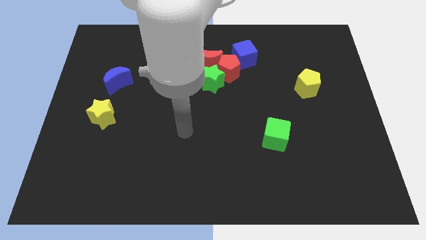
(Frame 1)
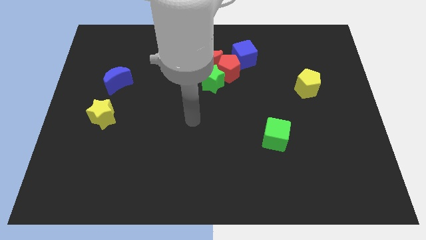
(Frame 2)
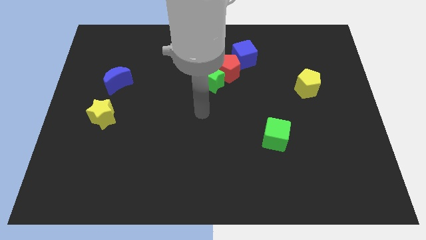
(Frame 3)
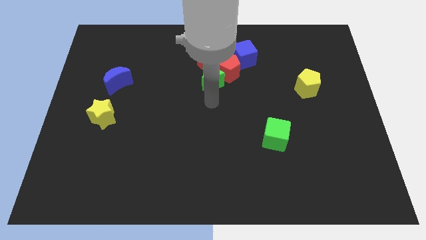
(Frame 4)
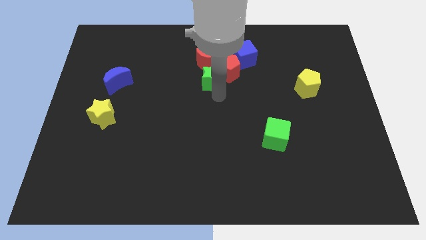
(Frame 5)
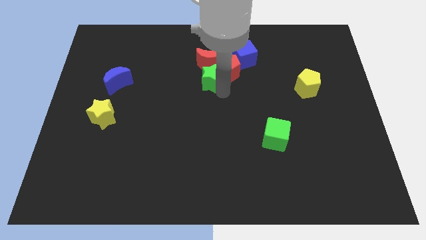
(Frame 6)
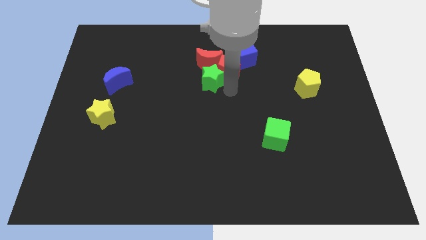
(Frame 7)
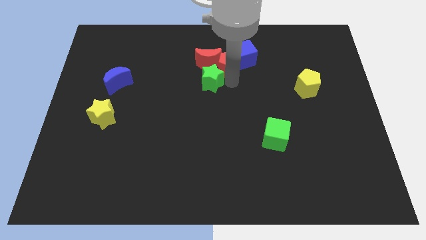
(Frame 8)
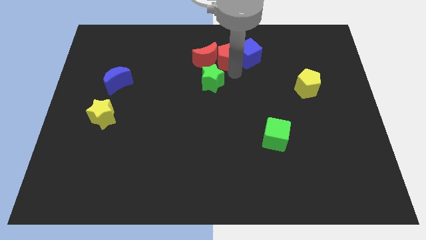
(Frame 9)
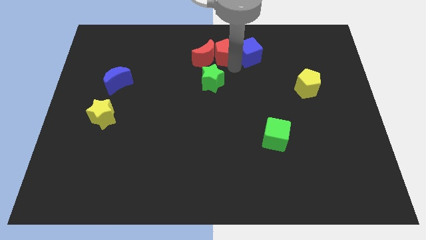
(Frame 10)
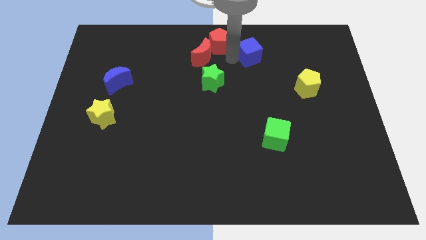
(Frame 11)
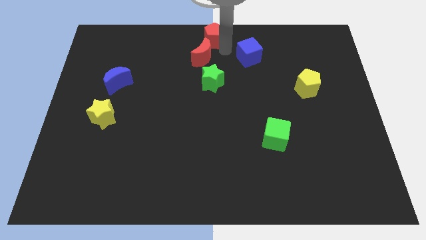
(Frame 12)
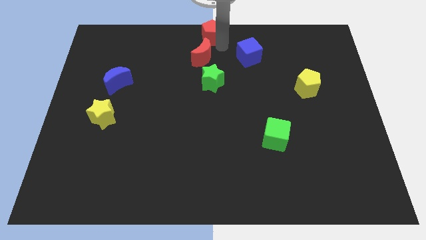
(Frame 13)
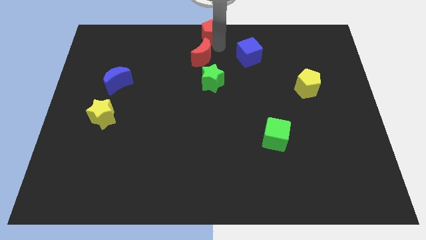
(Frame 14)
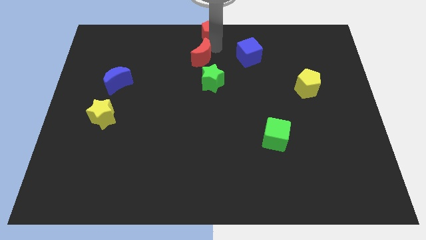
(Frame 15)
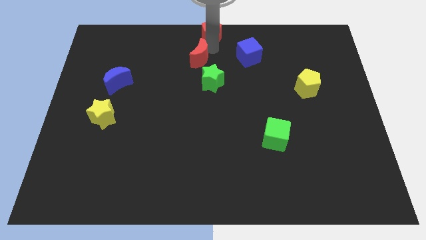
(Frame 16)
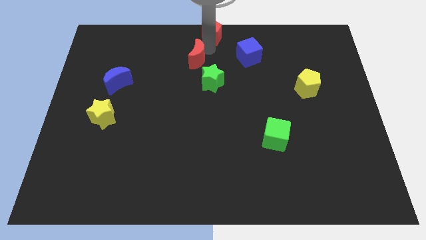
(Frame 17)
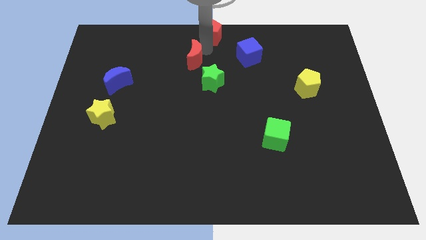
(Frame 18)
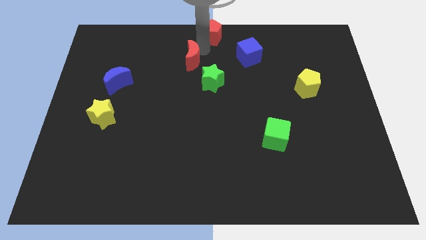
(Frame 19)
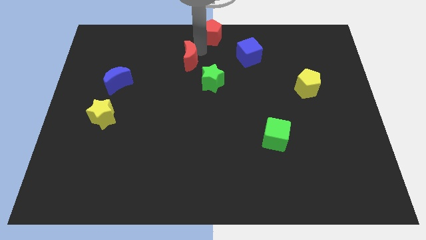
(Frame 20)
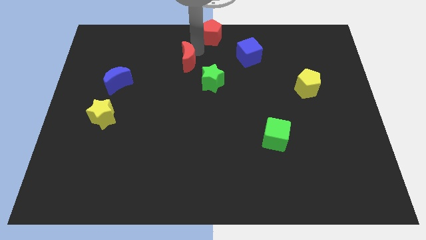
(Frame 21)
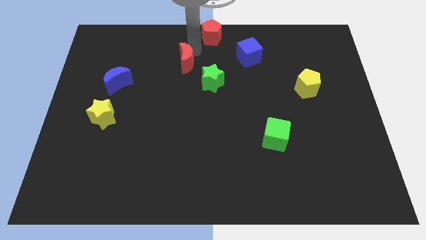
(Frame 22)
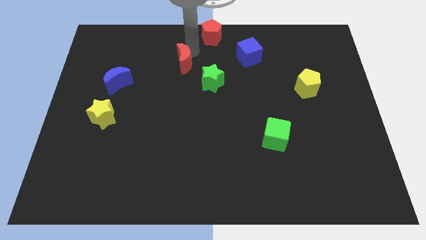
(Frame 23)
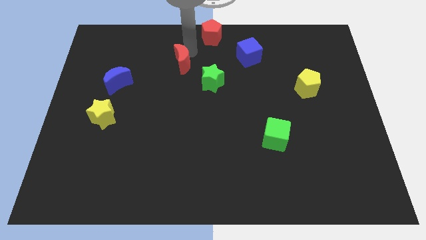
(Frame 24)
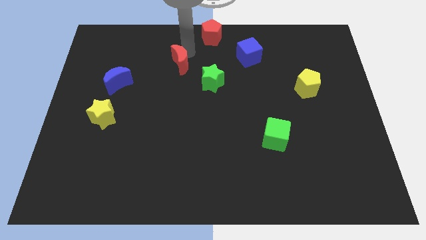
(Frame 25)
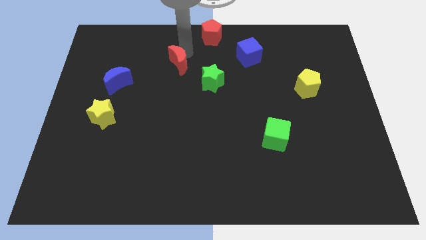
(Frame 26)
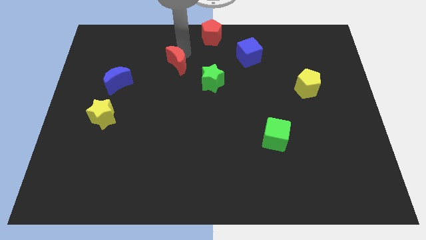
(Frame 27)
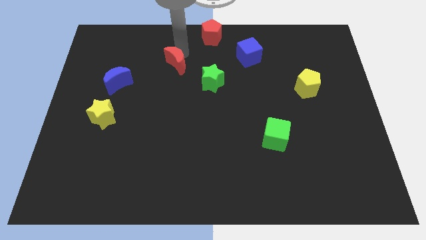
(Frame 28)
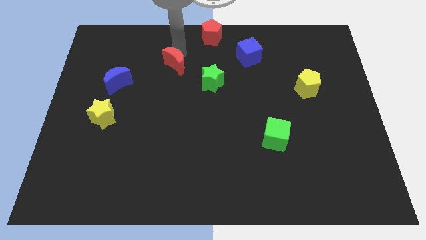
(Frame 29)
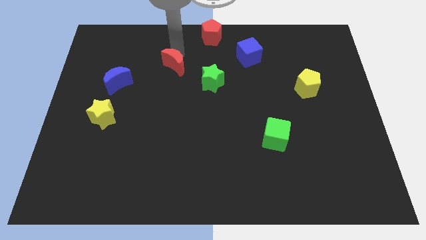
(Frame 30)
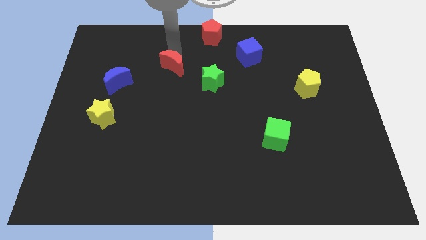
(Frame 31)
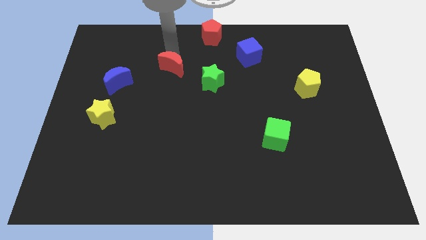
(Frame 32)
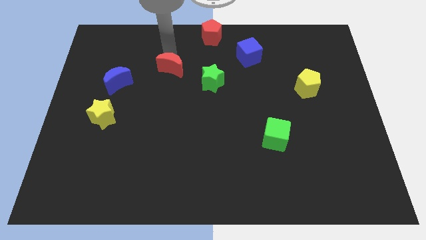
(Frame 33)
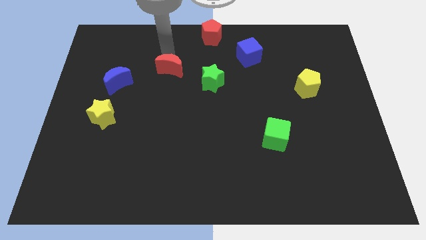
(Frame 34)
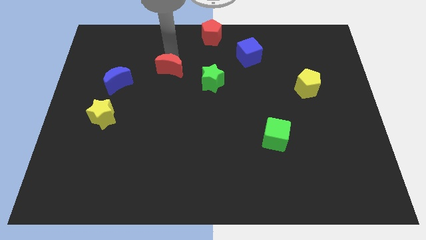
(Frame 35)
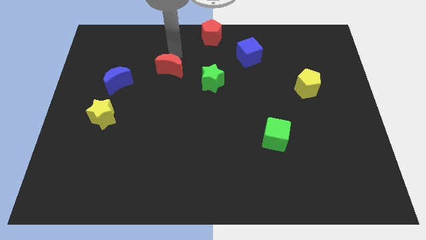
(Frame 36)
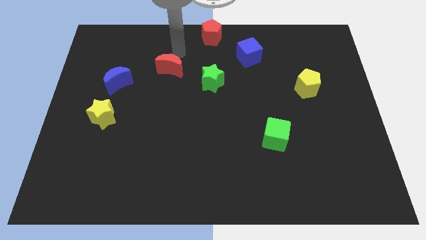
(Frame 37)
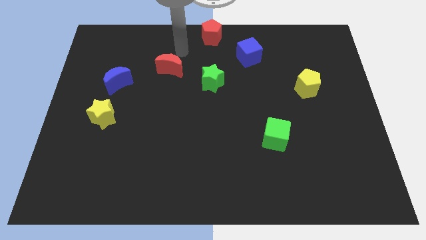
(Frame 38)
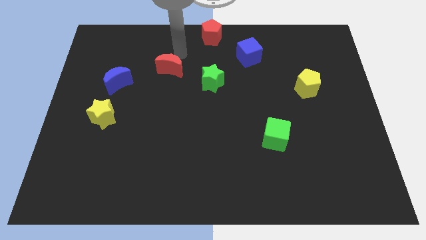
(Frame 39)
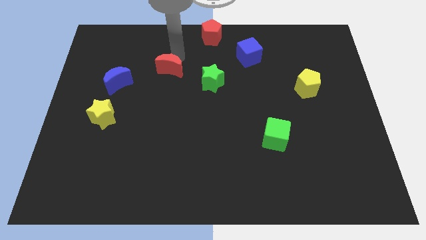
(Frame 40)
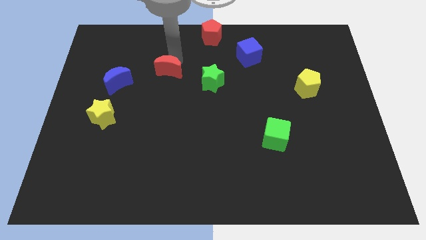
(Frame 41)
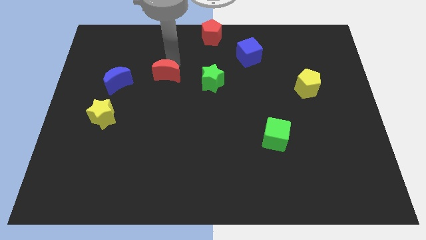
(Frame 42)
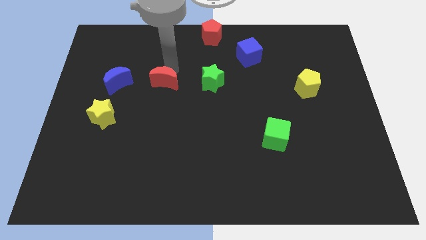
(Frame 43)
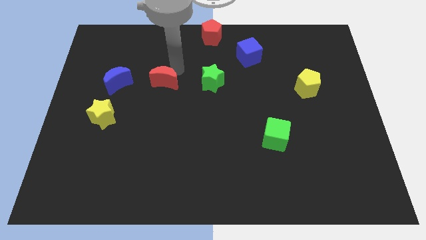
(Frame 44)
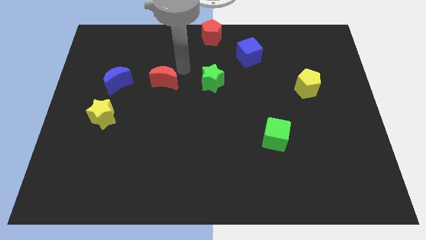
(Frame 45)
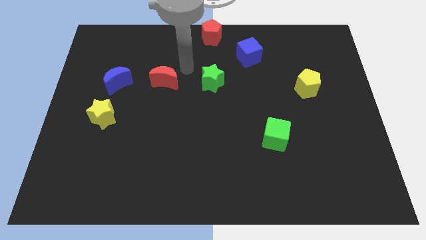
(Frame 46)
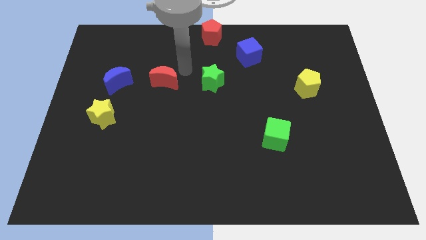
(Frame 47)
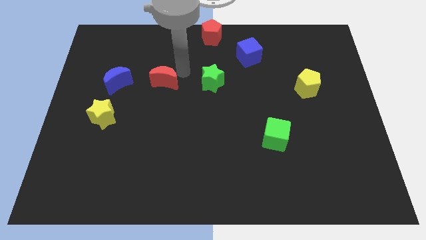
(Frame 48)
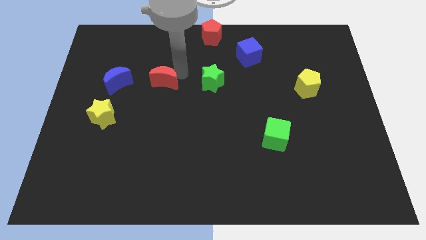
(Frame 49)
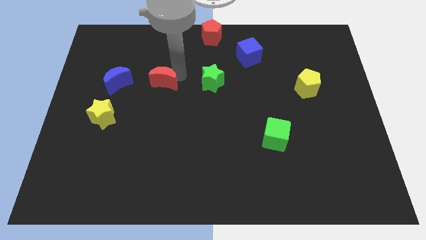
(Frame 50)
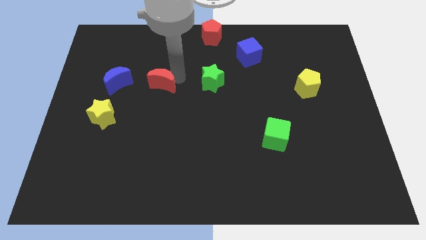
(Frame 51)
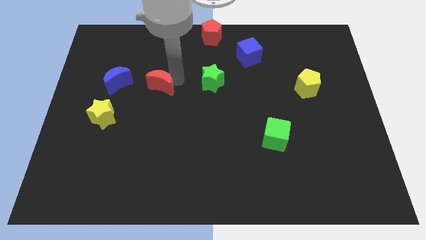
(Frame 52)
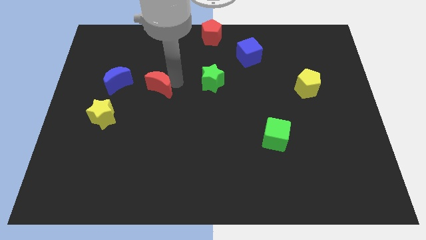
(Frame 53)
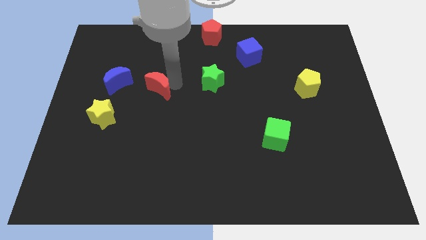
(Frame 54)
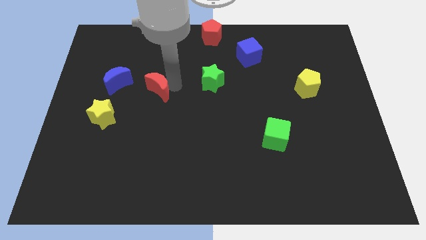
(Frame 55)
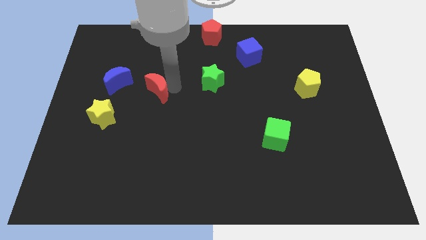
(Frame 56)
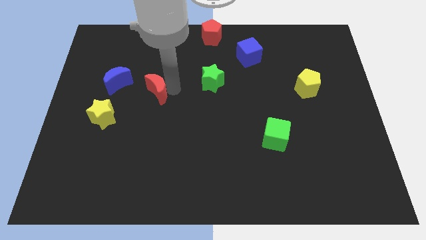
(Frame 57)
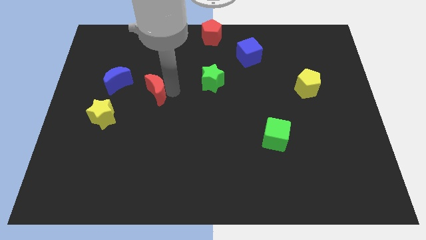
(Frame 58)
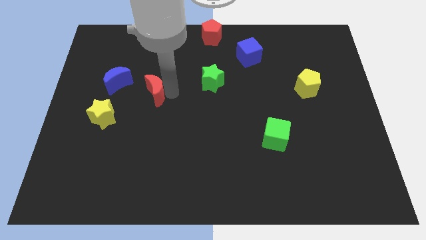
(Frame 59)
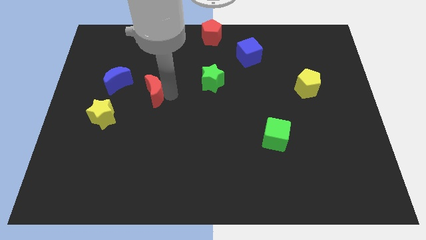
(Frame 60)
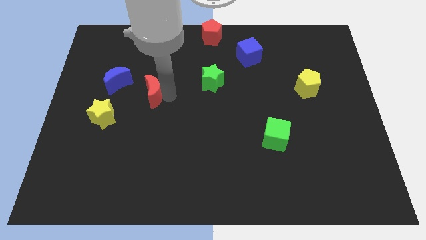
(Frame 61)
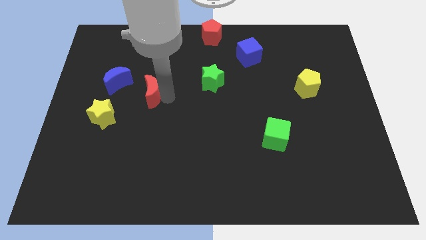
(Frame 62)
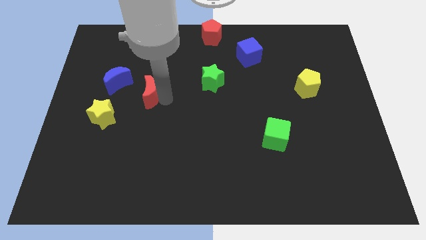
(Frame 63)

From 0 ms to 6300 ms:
move the red moon diagonally up and to the right of the yellow star

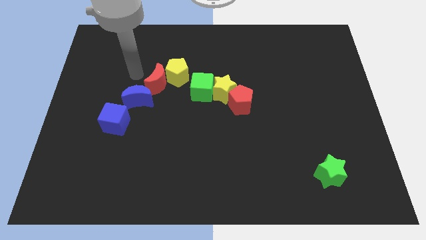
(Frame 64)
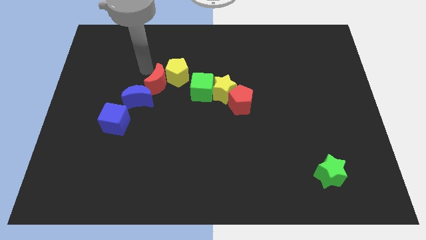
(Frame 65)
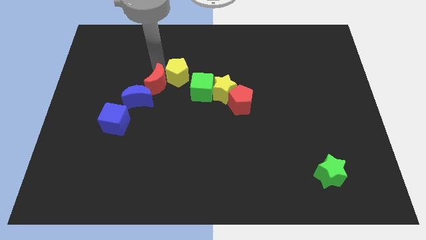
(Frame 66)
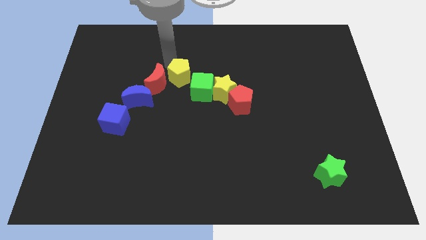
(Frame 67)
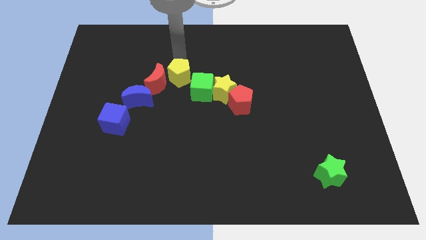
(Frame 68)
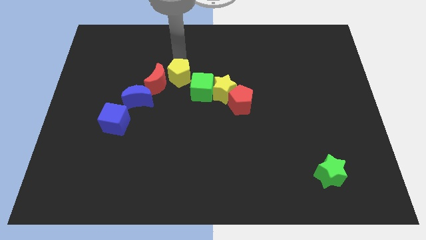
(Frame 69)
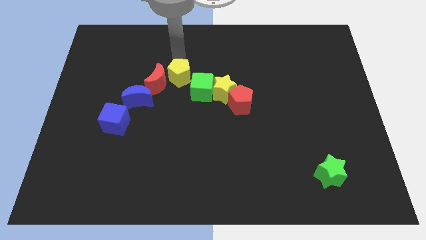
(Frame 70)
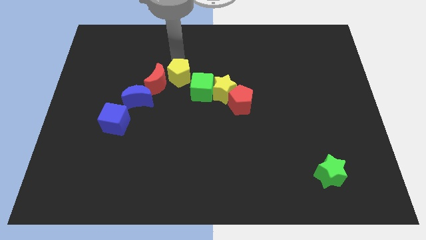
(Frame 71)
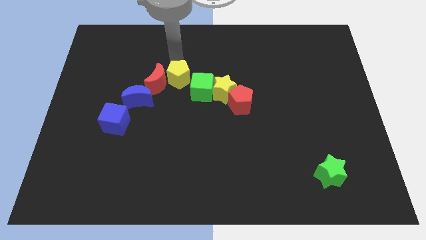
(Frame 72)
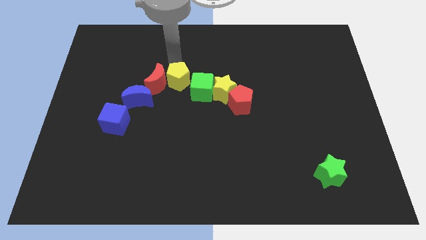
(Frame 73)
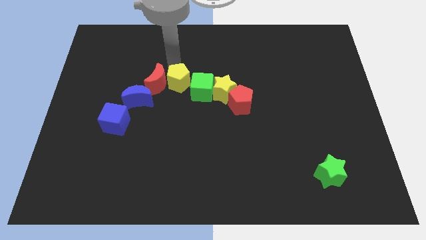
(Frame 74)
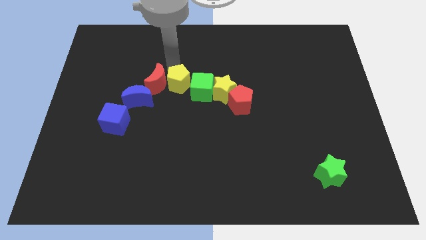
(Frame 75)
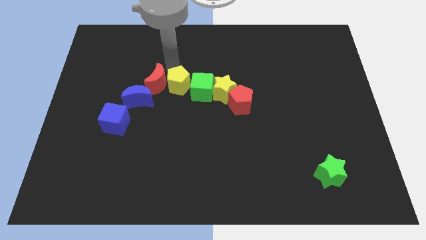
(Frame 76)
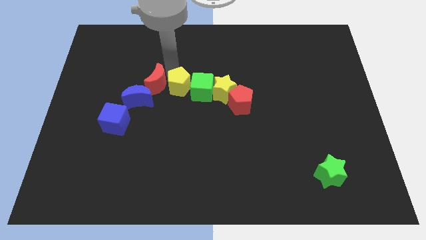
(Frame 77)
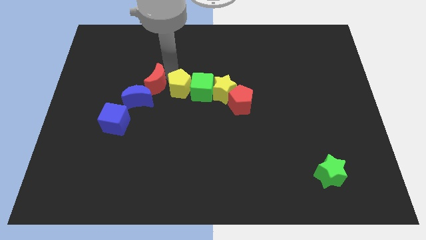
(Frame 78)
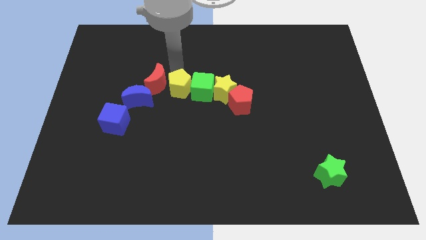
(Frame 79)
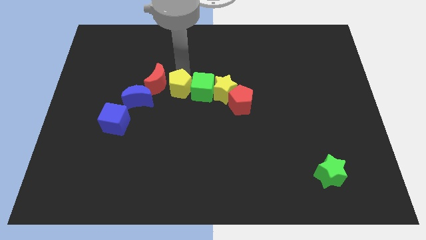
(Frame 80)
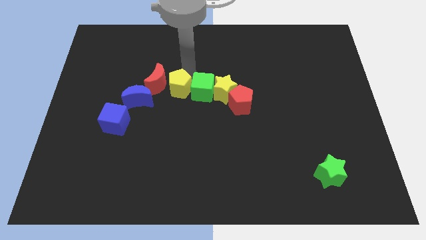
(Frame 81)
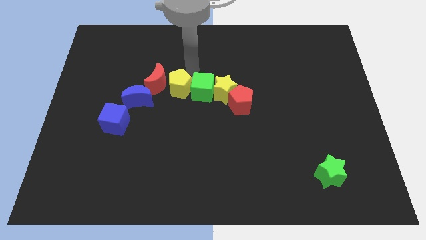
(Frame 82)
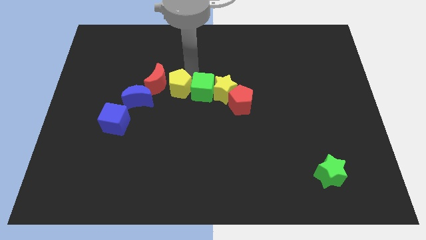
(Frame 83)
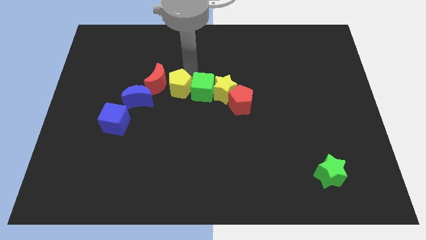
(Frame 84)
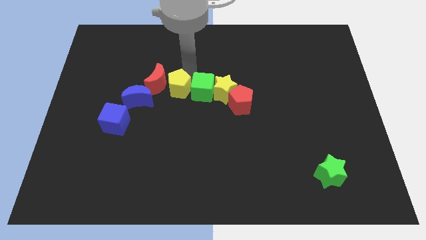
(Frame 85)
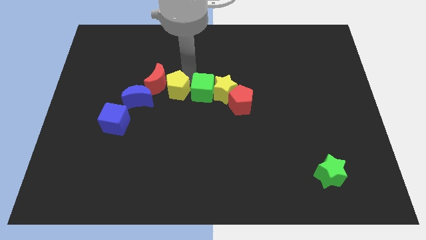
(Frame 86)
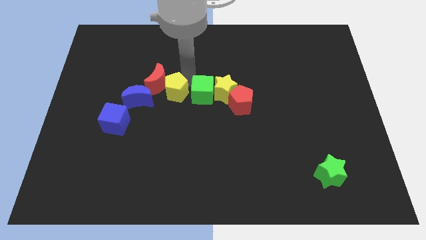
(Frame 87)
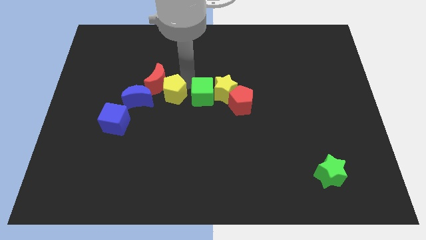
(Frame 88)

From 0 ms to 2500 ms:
move the yellow pentagon to the bottom of the red moon
